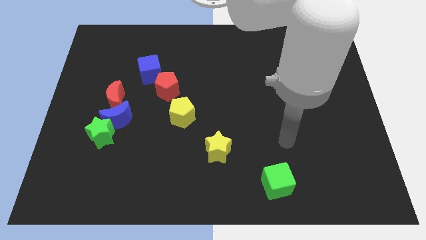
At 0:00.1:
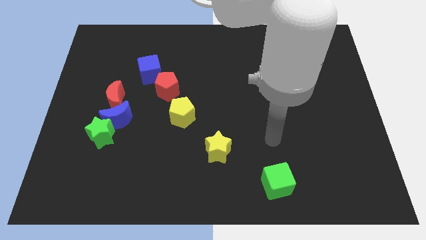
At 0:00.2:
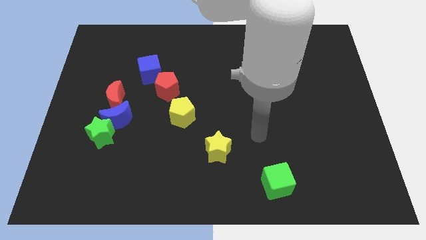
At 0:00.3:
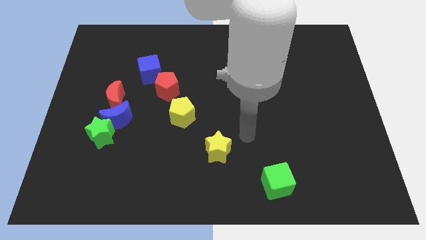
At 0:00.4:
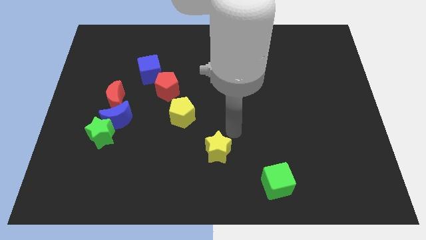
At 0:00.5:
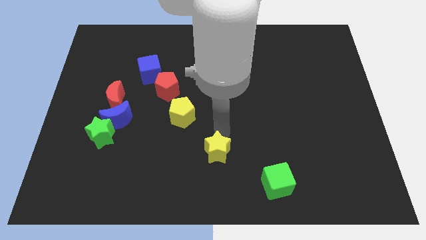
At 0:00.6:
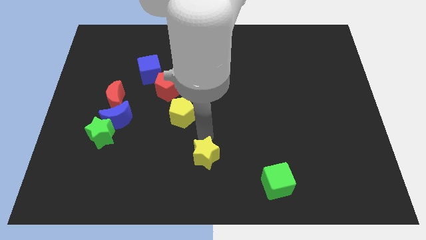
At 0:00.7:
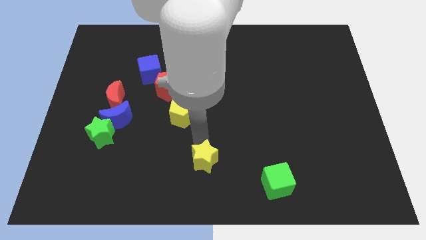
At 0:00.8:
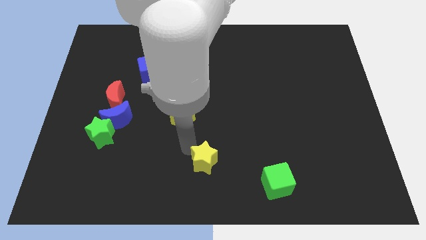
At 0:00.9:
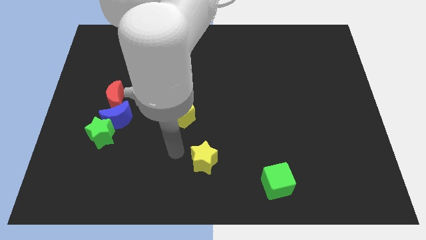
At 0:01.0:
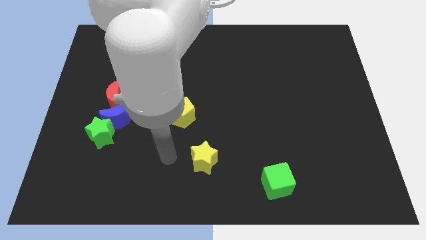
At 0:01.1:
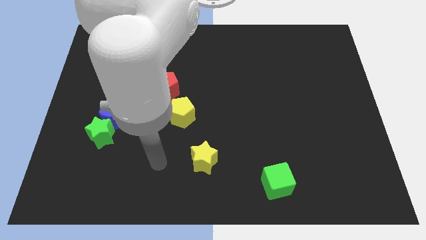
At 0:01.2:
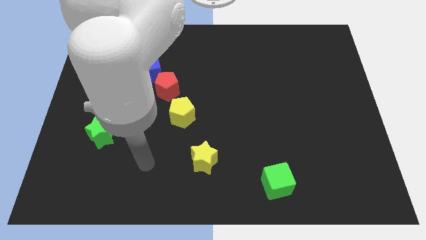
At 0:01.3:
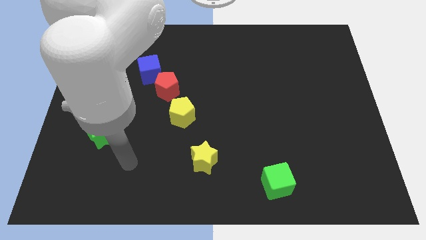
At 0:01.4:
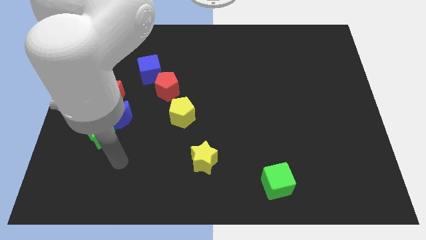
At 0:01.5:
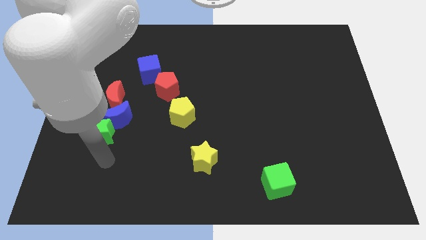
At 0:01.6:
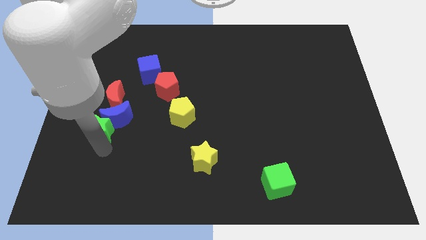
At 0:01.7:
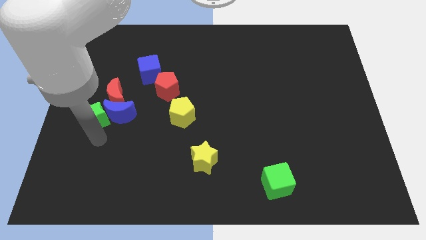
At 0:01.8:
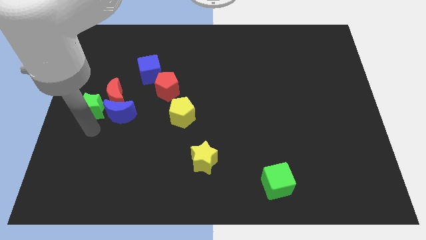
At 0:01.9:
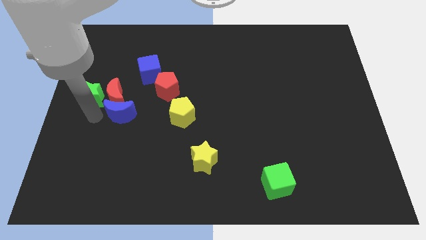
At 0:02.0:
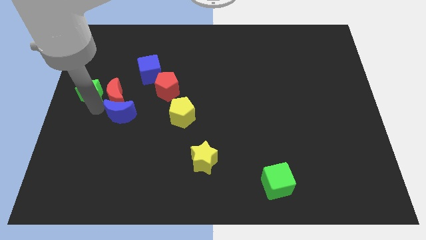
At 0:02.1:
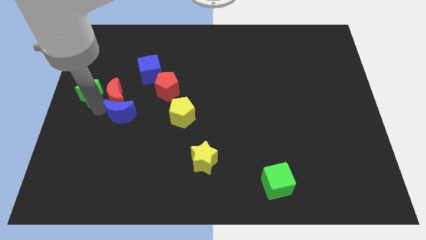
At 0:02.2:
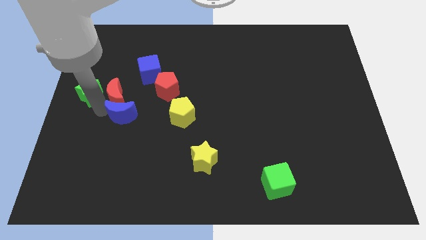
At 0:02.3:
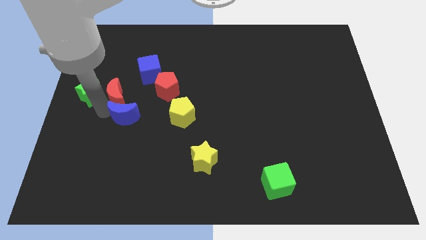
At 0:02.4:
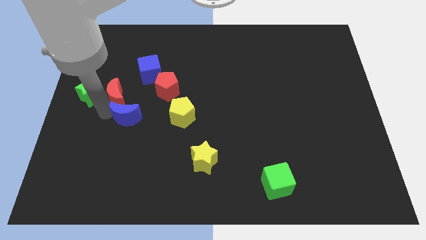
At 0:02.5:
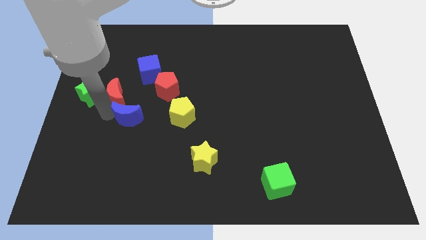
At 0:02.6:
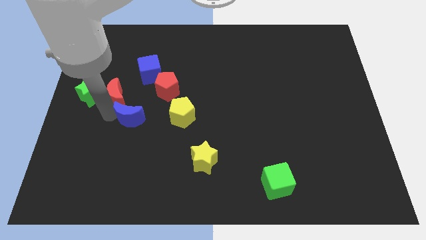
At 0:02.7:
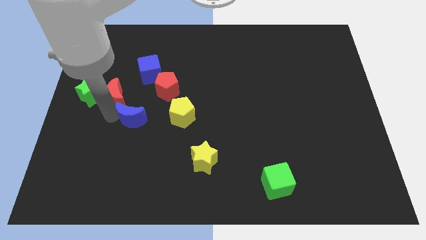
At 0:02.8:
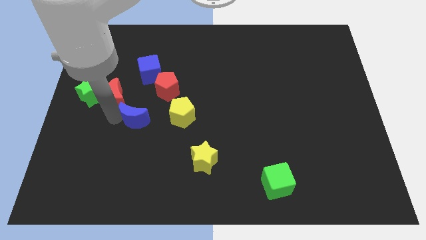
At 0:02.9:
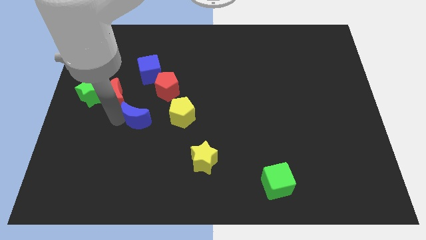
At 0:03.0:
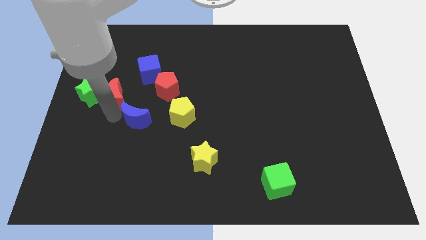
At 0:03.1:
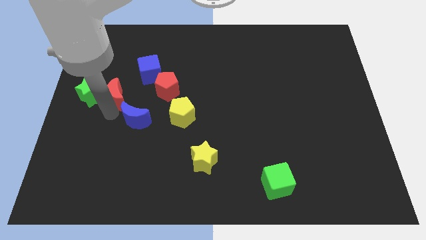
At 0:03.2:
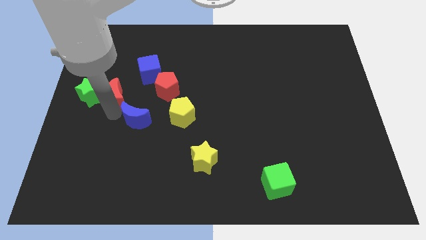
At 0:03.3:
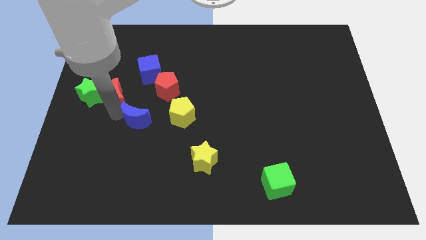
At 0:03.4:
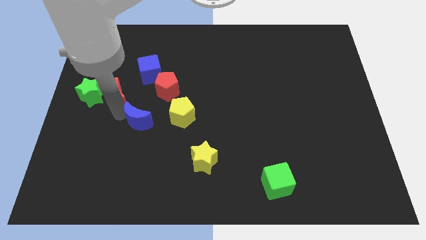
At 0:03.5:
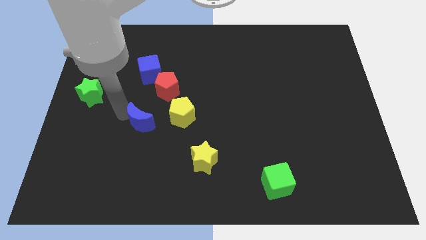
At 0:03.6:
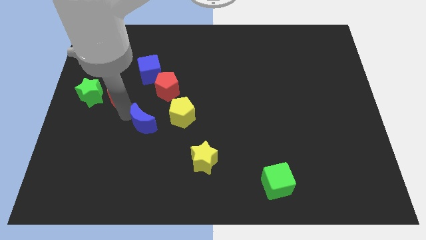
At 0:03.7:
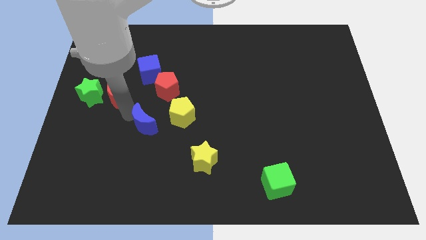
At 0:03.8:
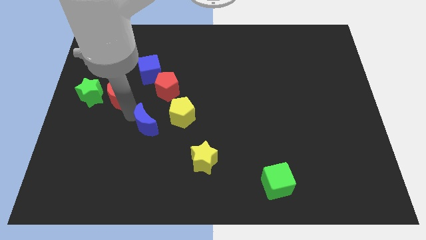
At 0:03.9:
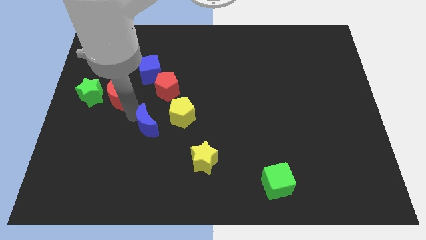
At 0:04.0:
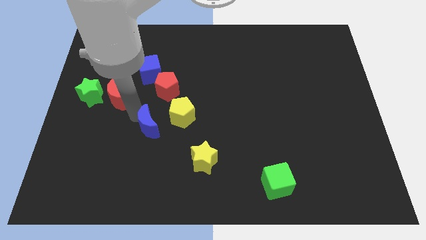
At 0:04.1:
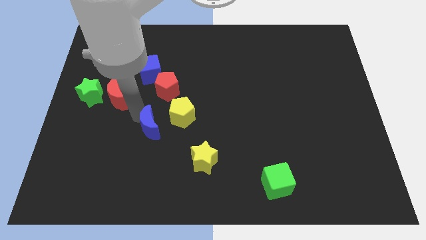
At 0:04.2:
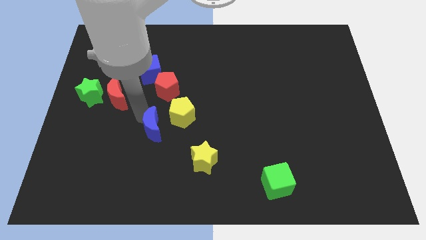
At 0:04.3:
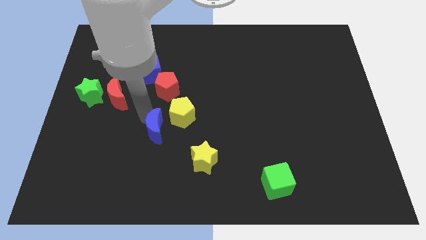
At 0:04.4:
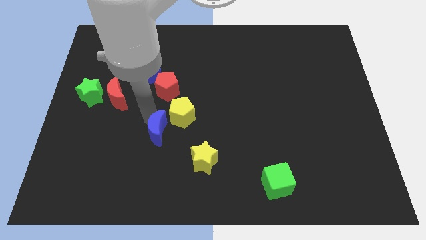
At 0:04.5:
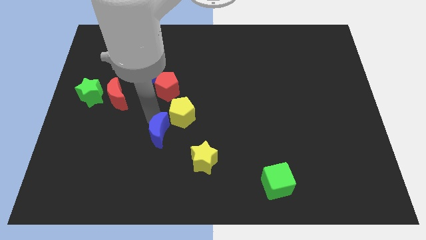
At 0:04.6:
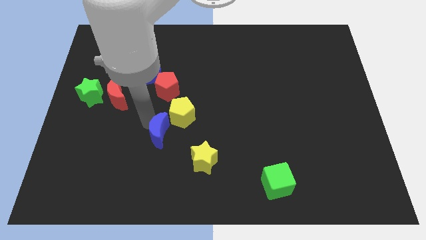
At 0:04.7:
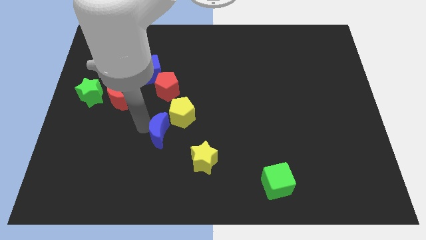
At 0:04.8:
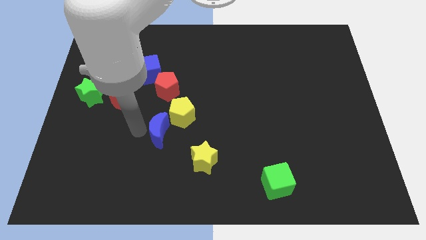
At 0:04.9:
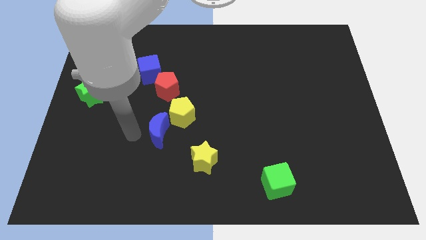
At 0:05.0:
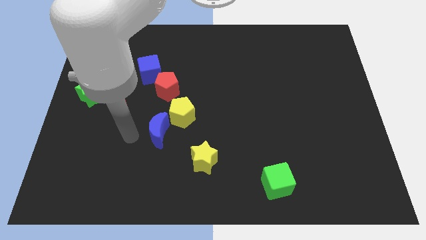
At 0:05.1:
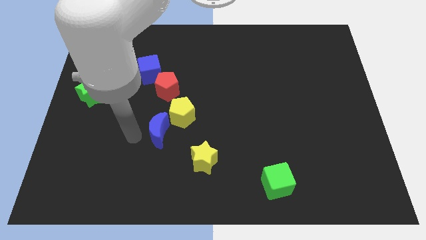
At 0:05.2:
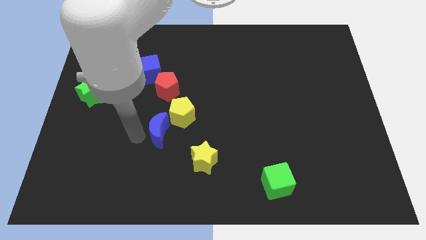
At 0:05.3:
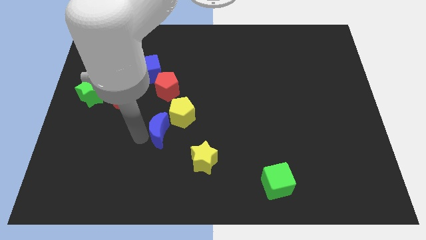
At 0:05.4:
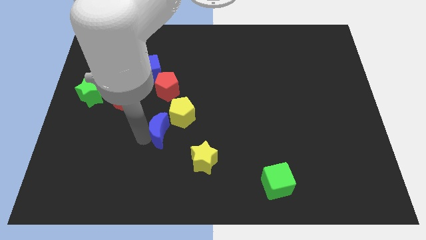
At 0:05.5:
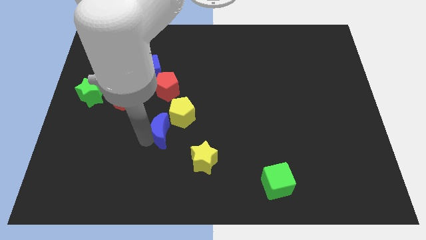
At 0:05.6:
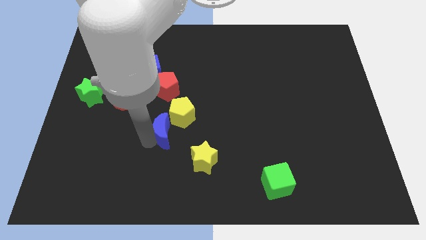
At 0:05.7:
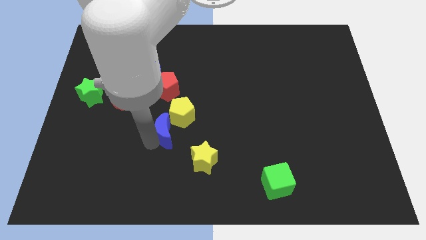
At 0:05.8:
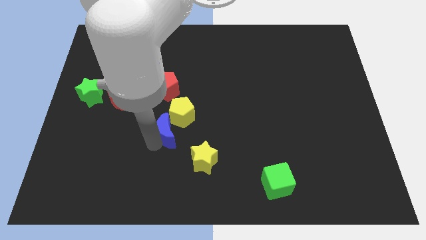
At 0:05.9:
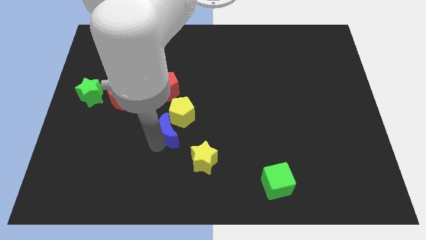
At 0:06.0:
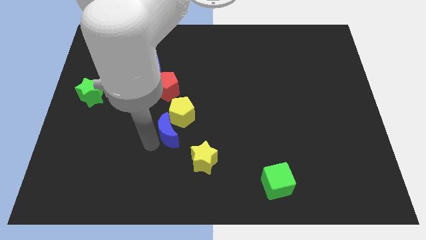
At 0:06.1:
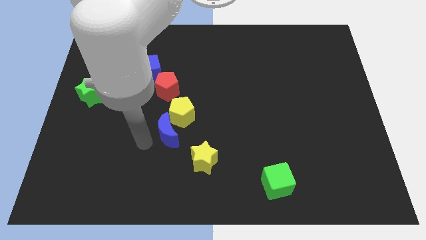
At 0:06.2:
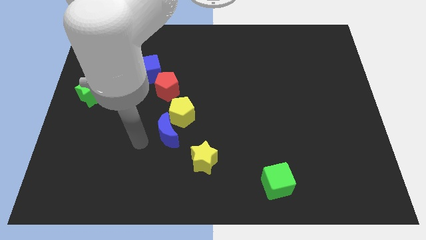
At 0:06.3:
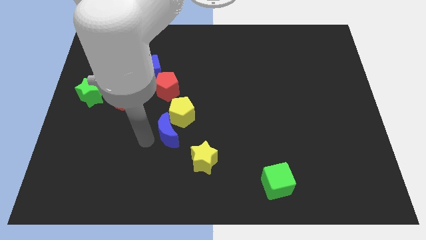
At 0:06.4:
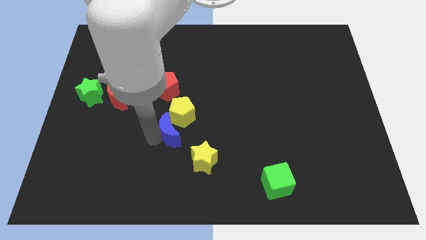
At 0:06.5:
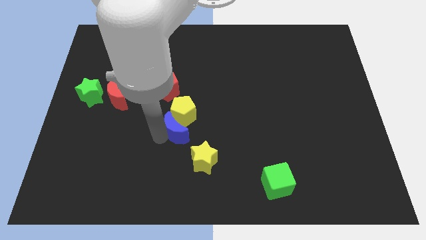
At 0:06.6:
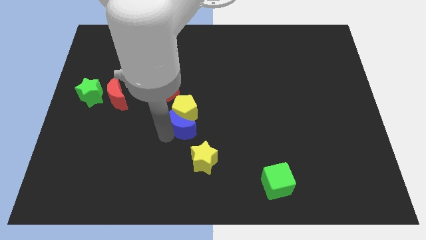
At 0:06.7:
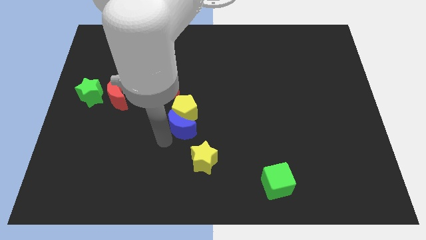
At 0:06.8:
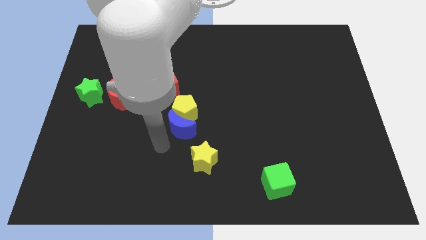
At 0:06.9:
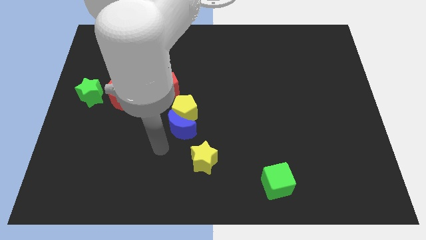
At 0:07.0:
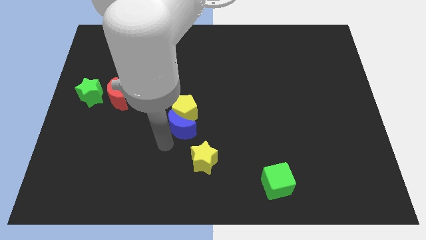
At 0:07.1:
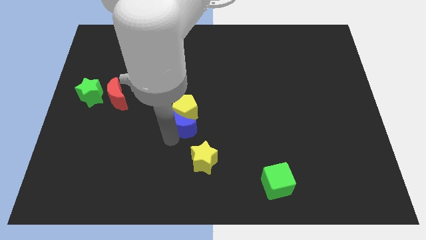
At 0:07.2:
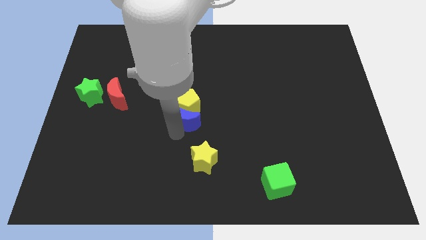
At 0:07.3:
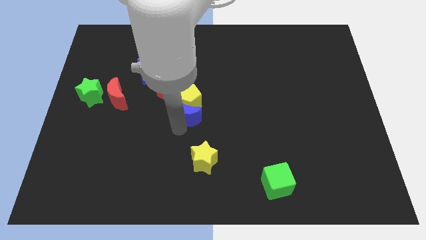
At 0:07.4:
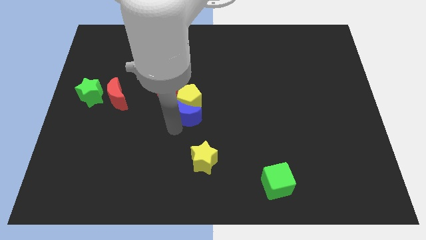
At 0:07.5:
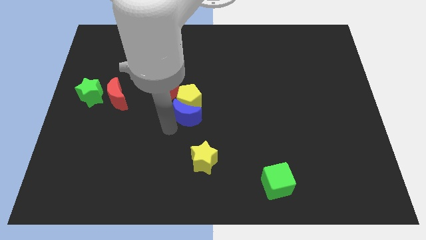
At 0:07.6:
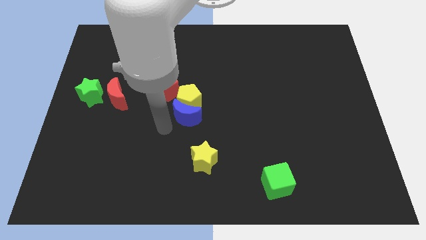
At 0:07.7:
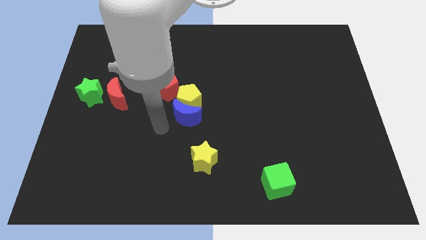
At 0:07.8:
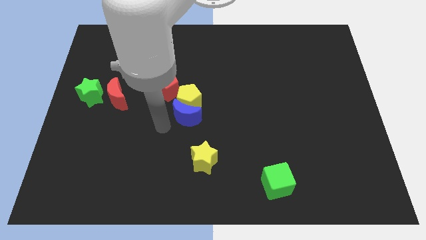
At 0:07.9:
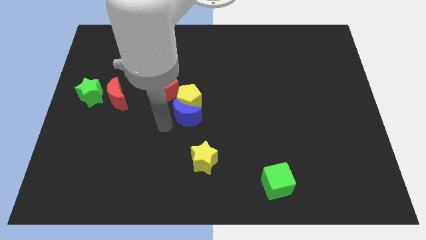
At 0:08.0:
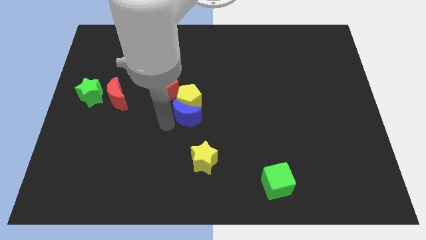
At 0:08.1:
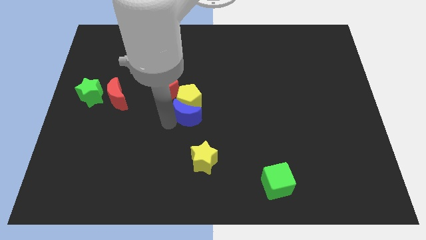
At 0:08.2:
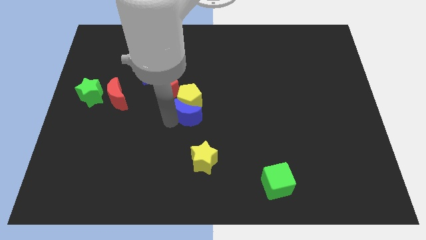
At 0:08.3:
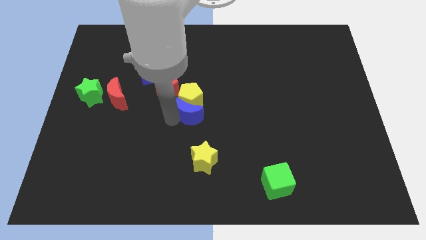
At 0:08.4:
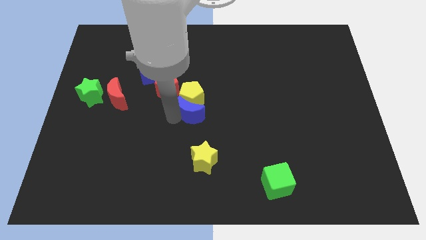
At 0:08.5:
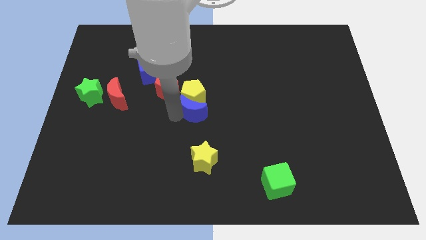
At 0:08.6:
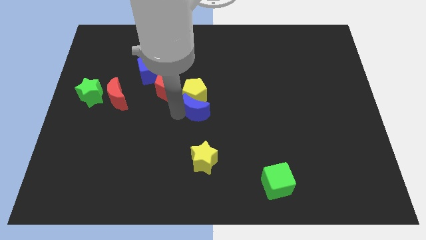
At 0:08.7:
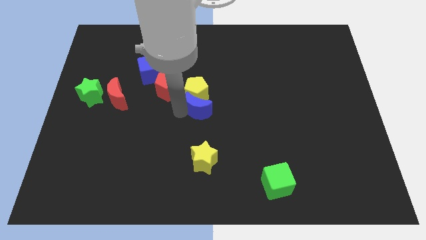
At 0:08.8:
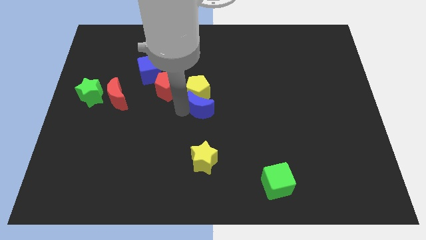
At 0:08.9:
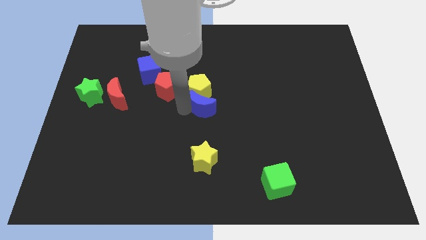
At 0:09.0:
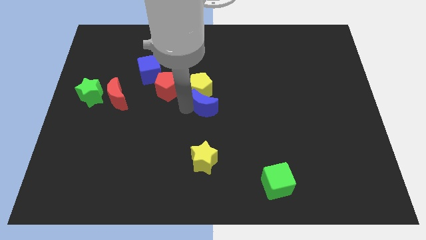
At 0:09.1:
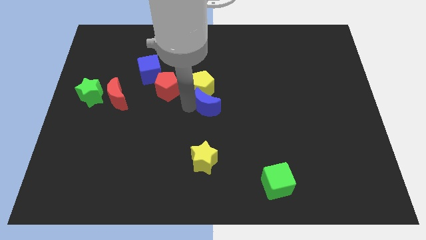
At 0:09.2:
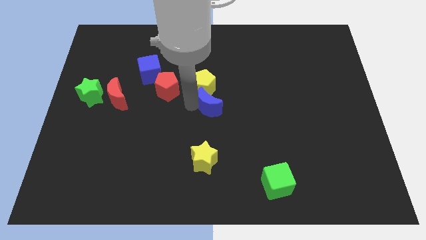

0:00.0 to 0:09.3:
slide the blue moon to the right
